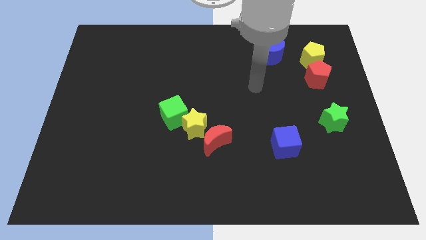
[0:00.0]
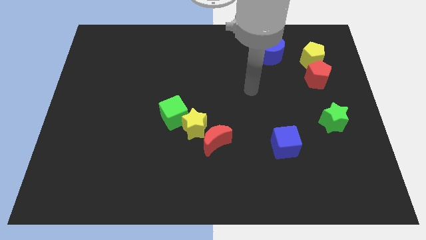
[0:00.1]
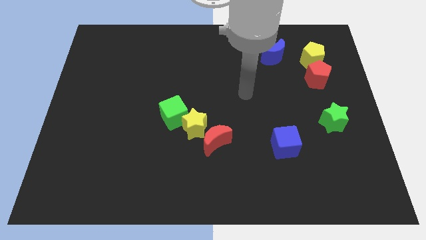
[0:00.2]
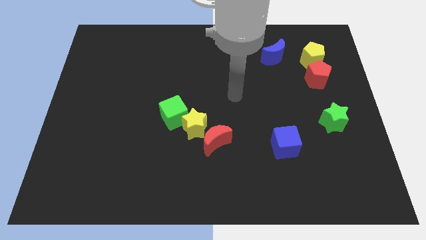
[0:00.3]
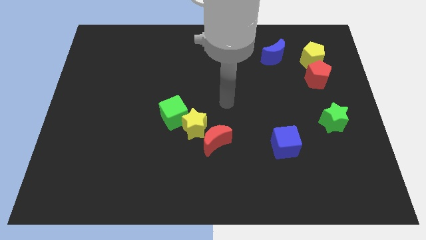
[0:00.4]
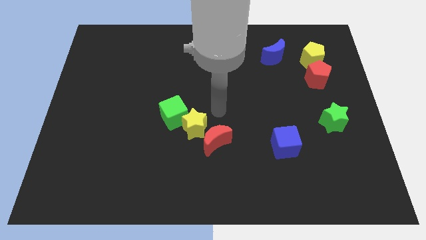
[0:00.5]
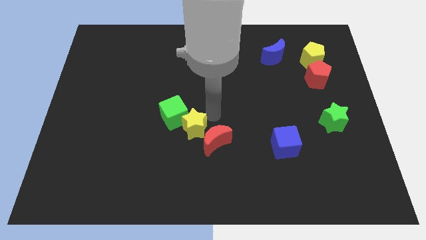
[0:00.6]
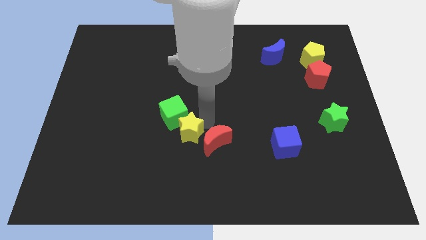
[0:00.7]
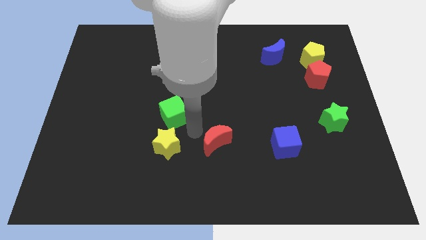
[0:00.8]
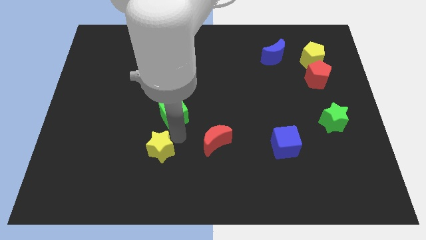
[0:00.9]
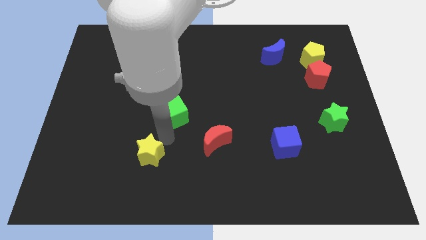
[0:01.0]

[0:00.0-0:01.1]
separate the green cube from the yellow star

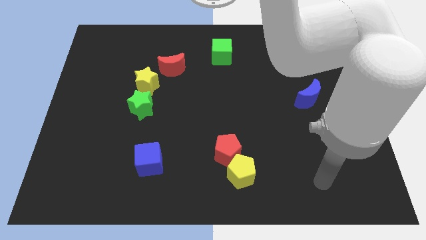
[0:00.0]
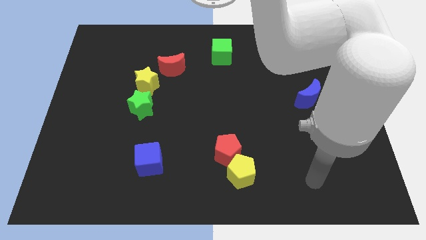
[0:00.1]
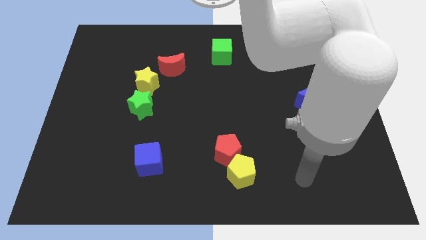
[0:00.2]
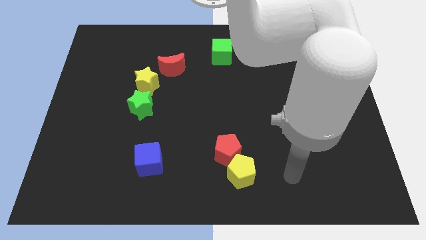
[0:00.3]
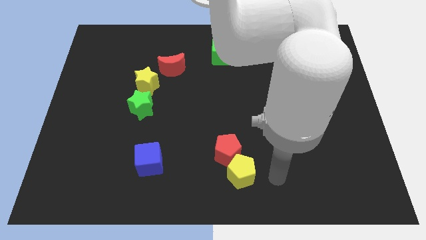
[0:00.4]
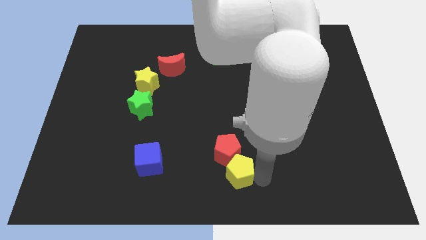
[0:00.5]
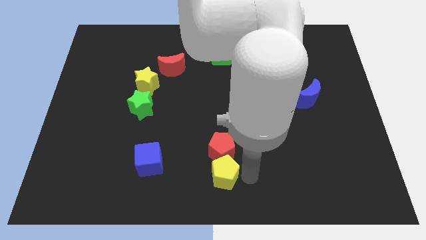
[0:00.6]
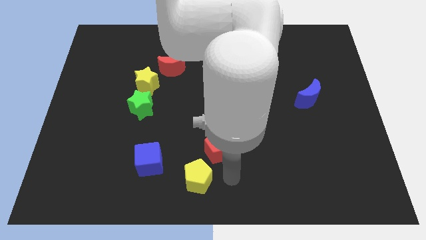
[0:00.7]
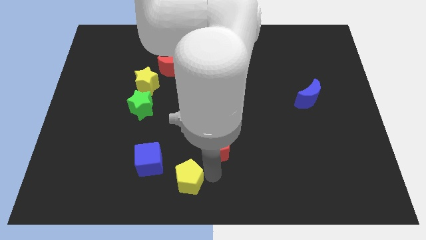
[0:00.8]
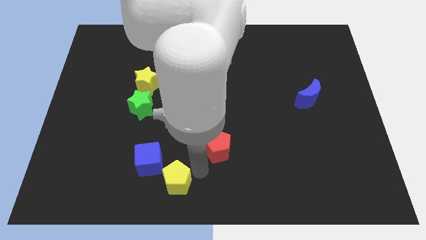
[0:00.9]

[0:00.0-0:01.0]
move the red pentagon away from the yellow pentagon

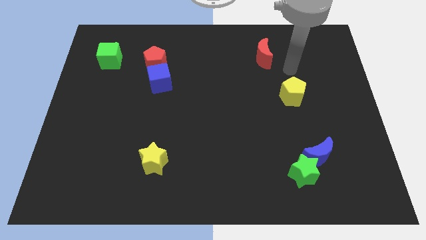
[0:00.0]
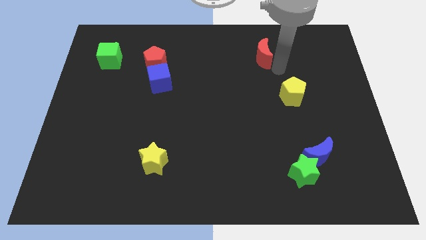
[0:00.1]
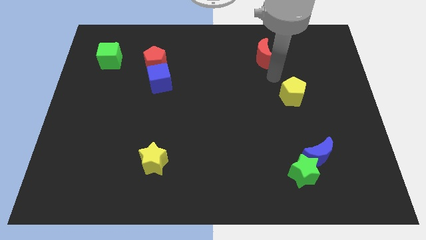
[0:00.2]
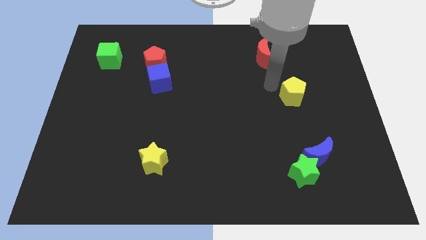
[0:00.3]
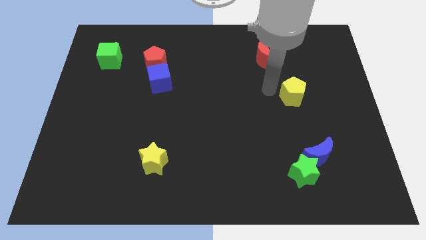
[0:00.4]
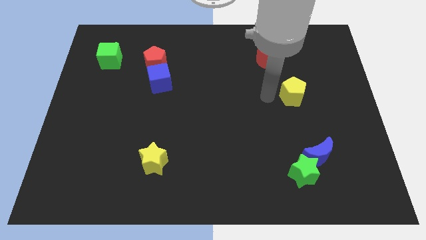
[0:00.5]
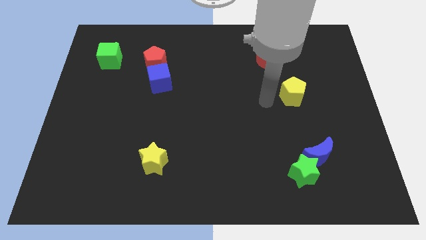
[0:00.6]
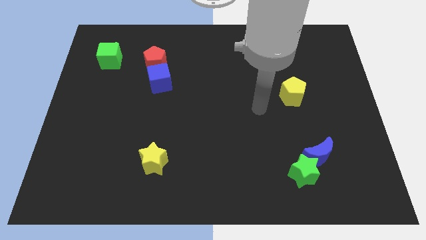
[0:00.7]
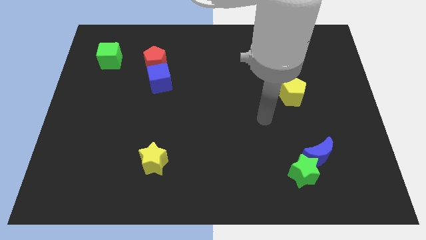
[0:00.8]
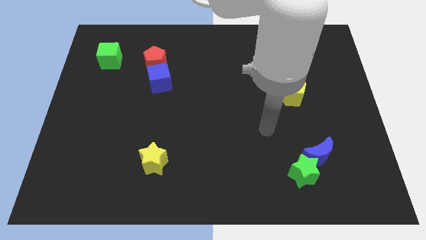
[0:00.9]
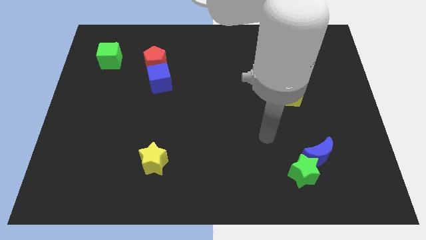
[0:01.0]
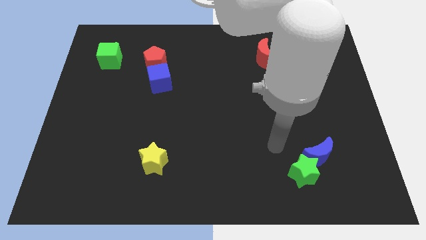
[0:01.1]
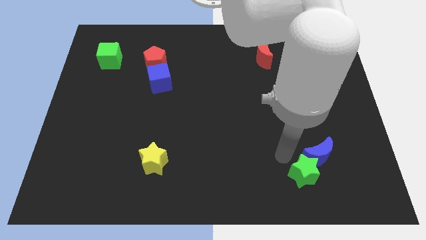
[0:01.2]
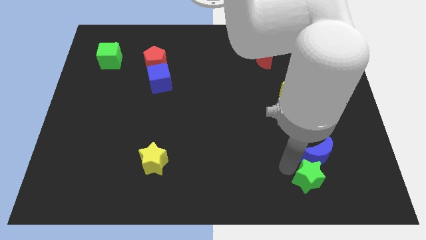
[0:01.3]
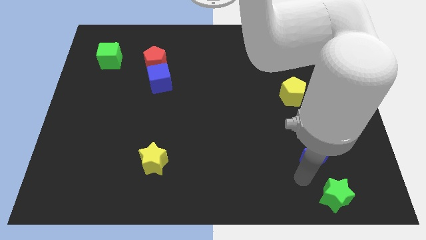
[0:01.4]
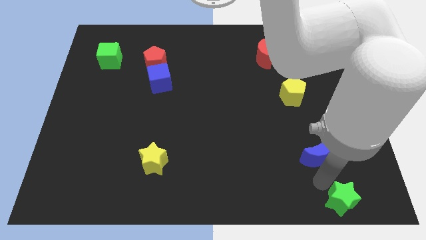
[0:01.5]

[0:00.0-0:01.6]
separate the blue moon from the green star

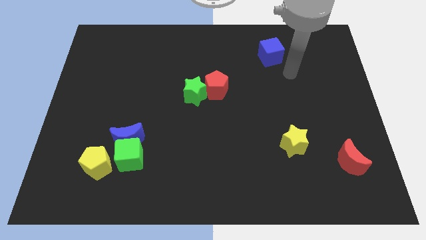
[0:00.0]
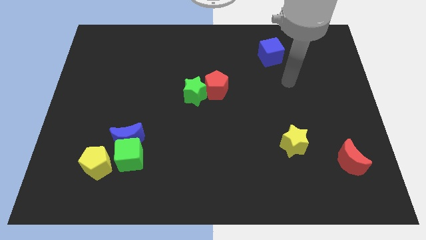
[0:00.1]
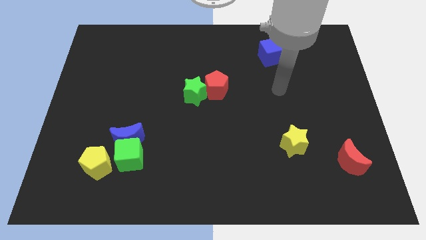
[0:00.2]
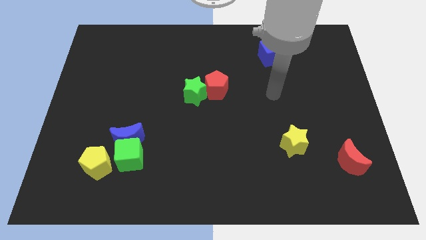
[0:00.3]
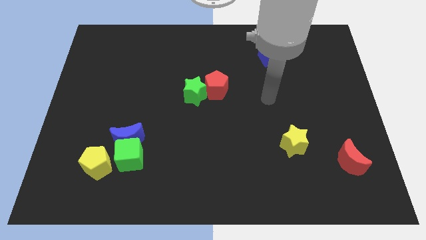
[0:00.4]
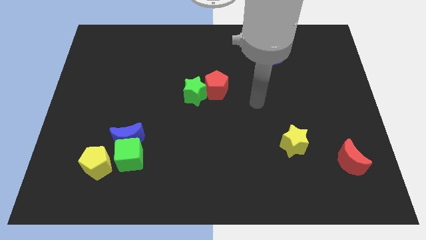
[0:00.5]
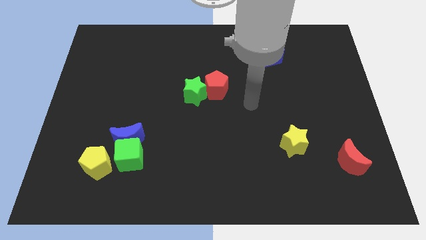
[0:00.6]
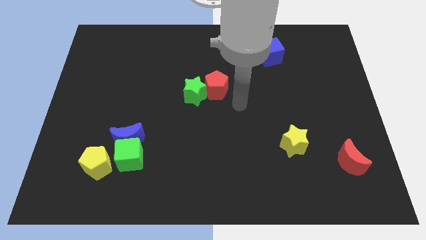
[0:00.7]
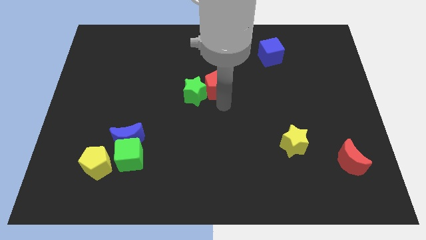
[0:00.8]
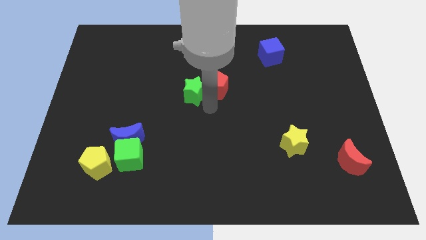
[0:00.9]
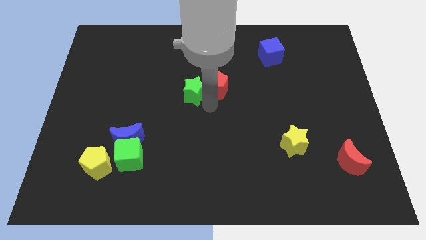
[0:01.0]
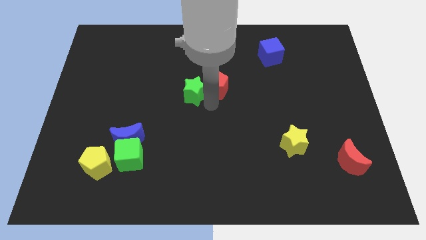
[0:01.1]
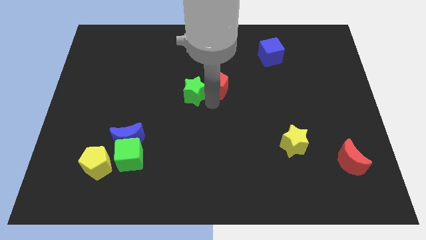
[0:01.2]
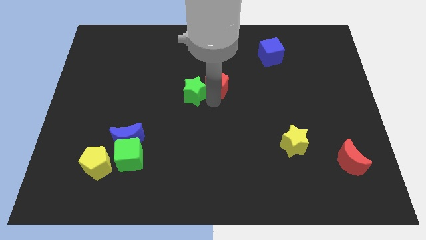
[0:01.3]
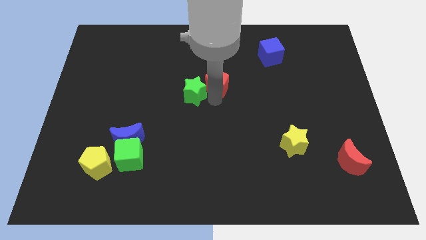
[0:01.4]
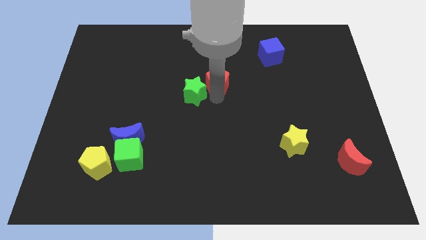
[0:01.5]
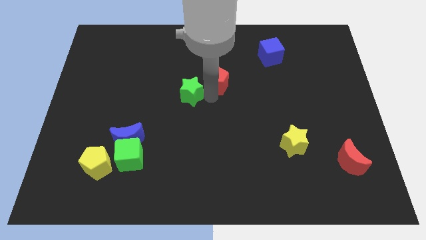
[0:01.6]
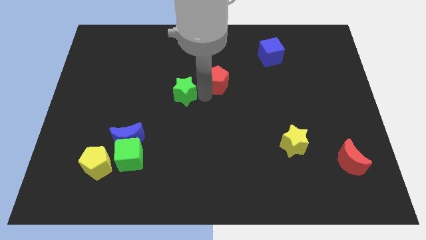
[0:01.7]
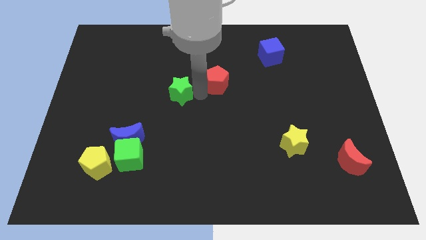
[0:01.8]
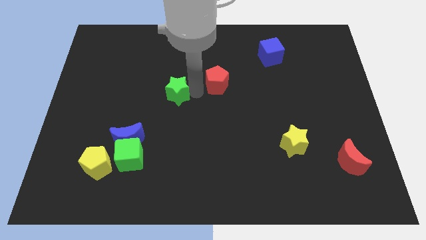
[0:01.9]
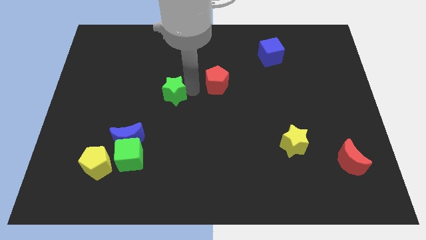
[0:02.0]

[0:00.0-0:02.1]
pull the red pentagon apart from the green star

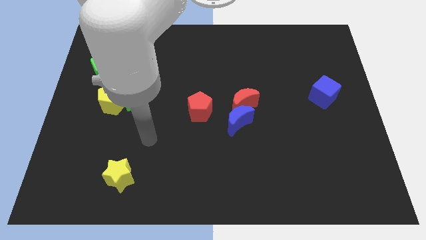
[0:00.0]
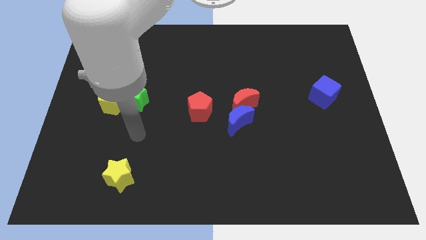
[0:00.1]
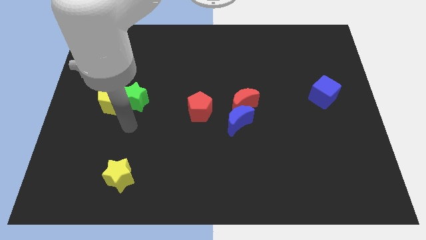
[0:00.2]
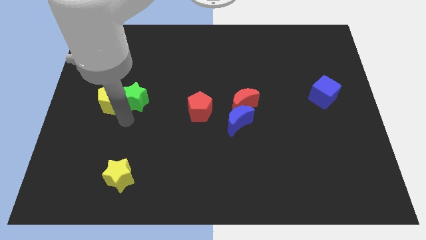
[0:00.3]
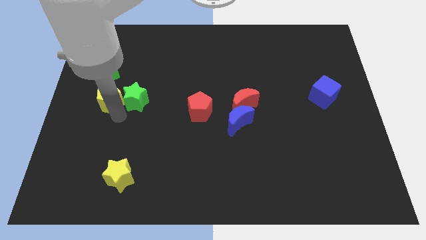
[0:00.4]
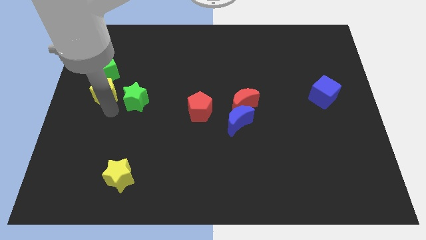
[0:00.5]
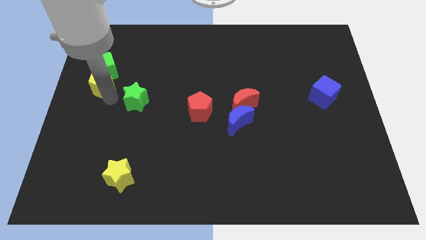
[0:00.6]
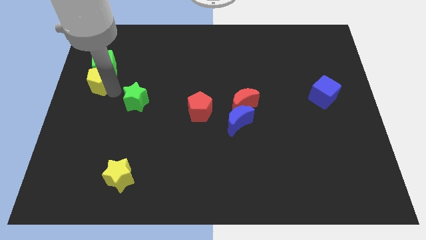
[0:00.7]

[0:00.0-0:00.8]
separate the green star from the yellow pentagon

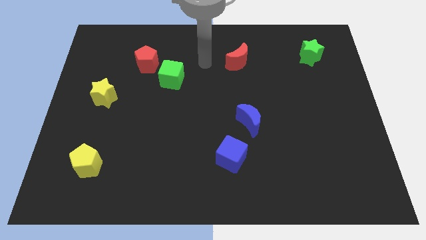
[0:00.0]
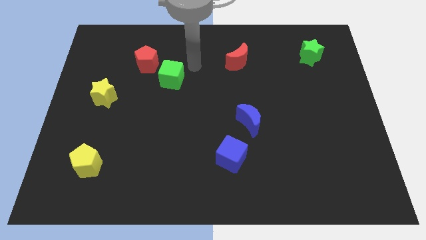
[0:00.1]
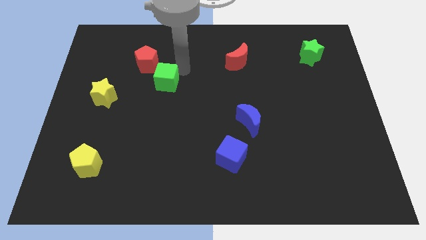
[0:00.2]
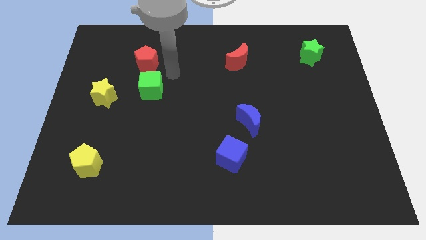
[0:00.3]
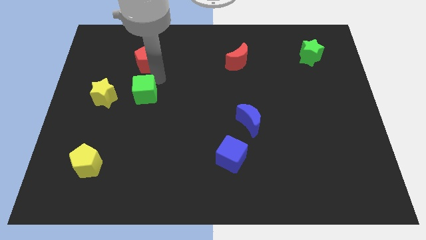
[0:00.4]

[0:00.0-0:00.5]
pull the red pentagon apart from the green cube

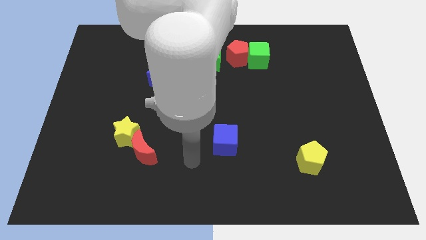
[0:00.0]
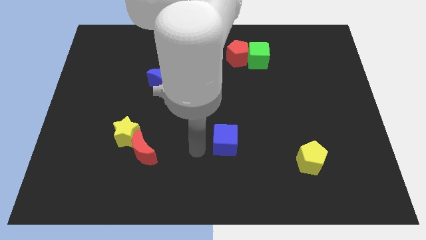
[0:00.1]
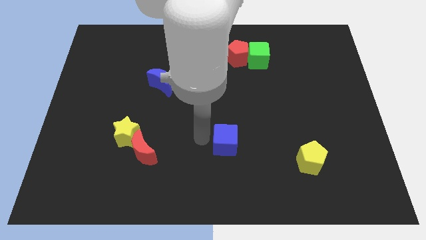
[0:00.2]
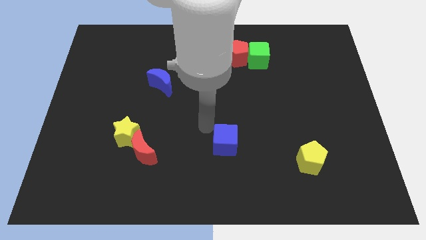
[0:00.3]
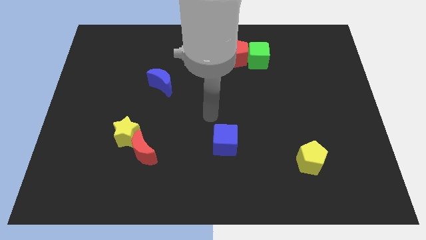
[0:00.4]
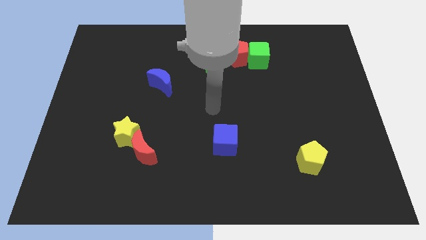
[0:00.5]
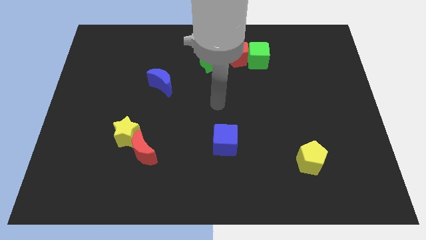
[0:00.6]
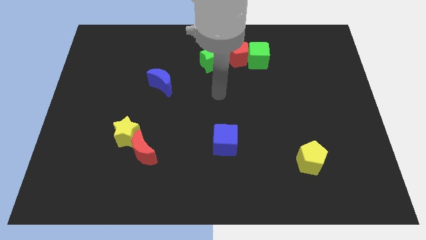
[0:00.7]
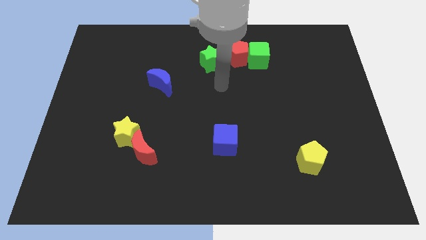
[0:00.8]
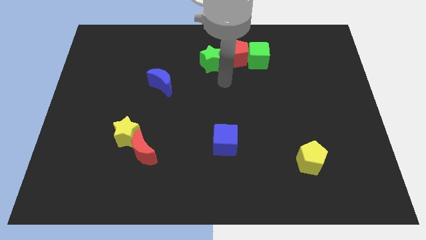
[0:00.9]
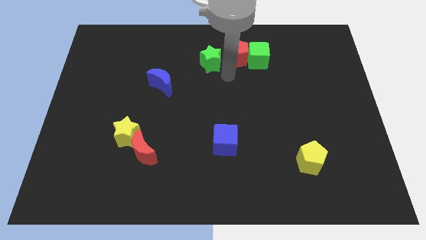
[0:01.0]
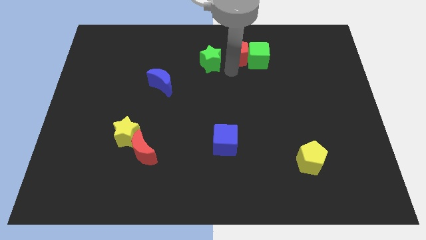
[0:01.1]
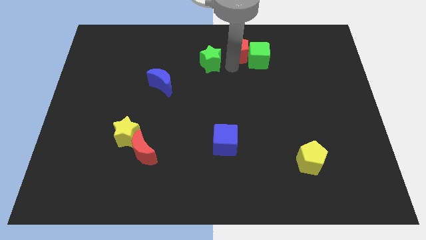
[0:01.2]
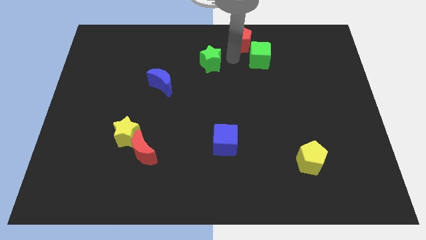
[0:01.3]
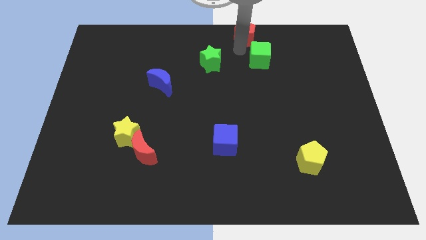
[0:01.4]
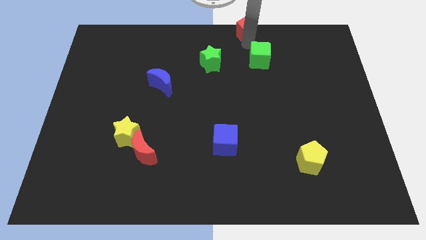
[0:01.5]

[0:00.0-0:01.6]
pull the green cube apart from the red pentagon

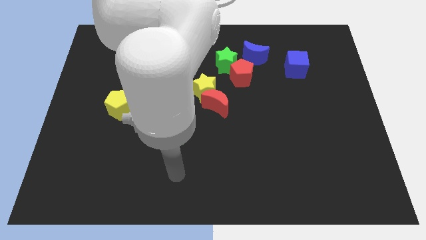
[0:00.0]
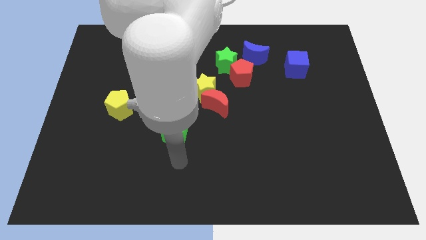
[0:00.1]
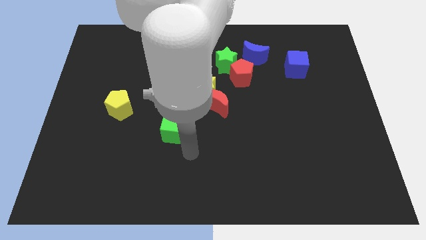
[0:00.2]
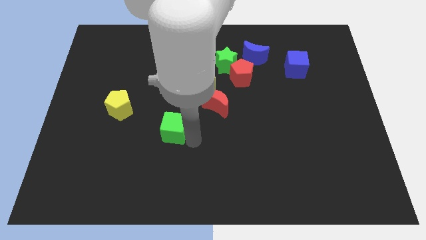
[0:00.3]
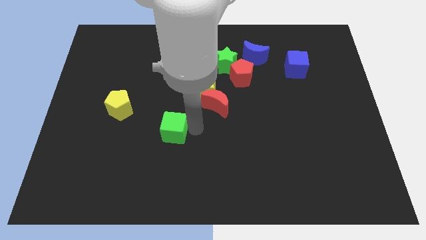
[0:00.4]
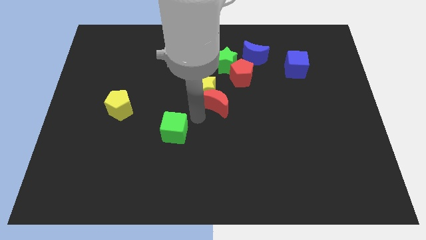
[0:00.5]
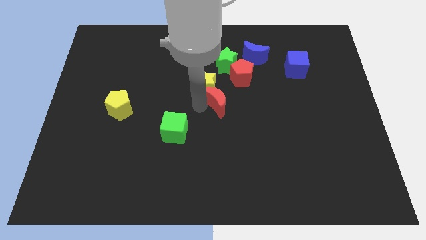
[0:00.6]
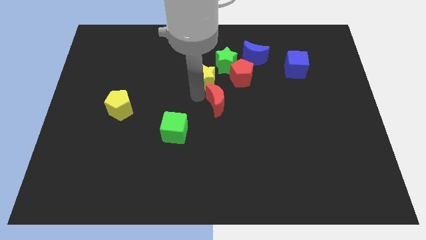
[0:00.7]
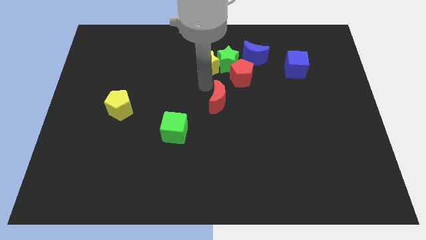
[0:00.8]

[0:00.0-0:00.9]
move the red moon away from the yellow star
